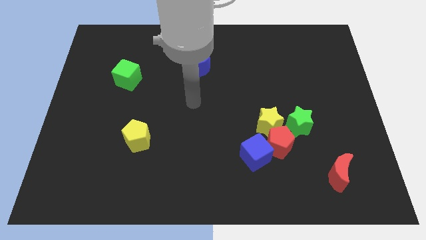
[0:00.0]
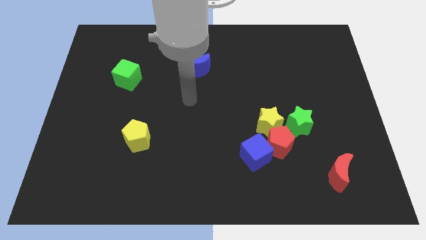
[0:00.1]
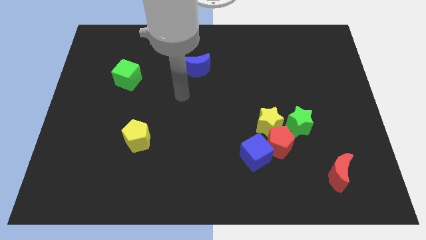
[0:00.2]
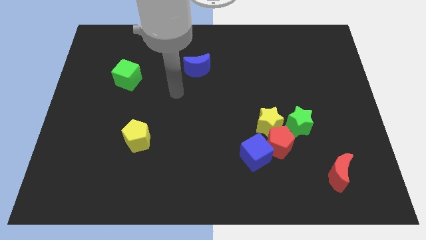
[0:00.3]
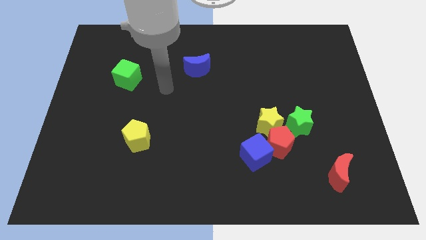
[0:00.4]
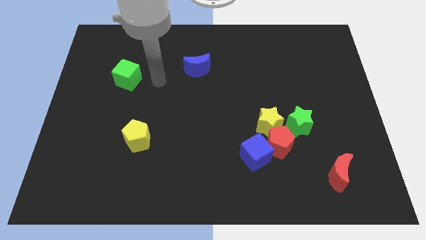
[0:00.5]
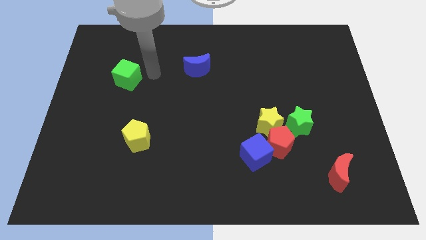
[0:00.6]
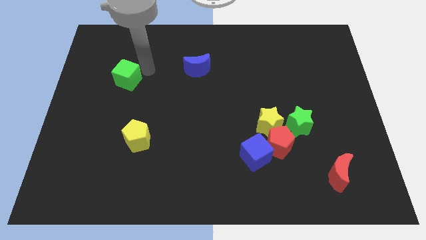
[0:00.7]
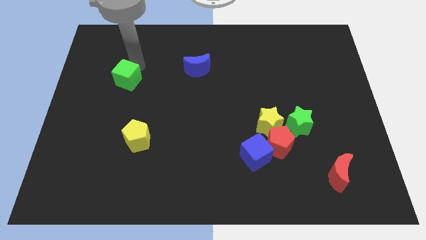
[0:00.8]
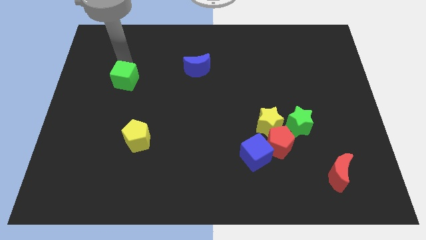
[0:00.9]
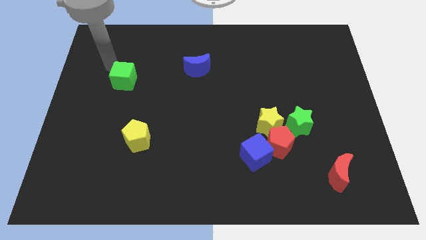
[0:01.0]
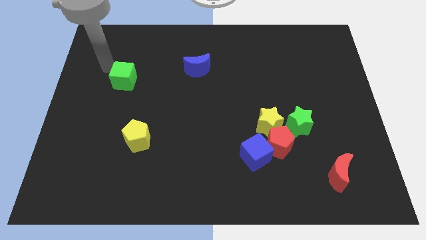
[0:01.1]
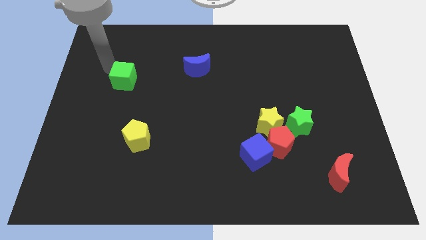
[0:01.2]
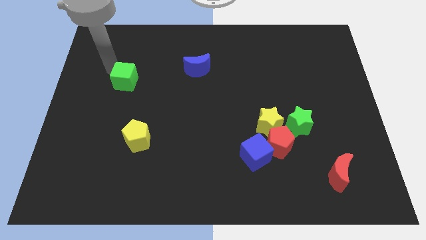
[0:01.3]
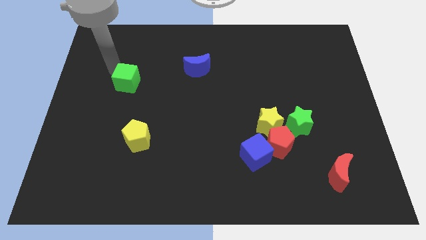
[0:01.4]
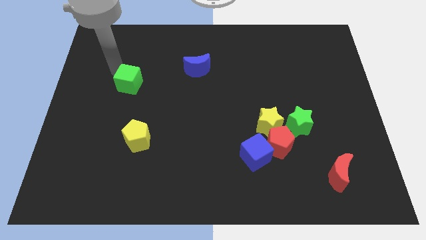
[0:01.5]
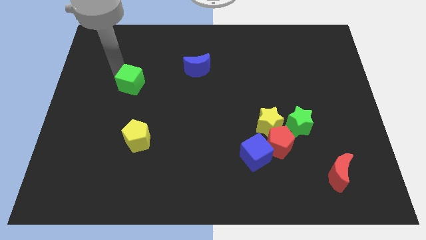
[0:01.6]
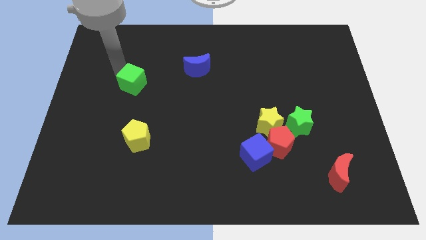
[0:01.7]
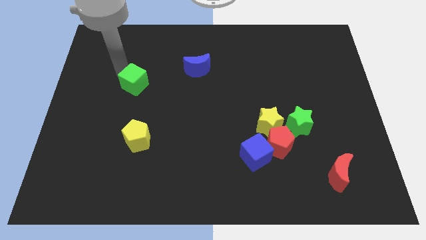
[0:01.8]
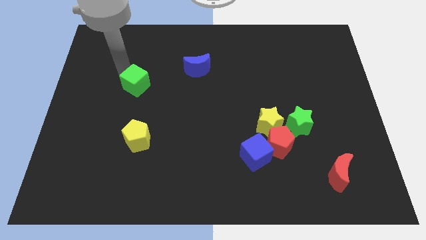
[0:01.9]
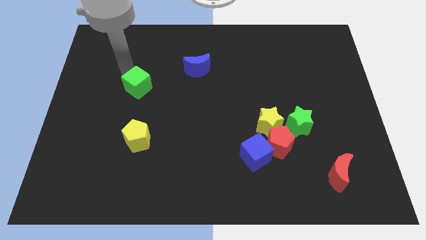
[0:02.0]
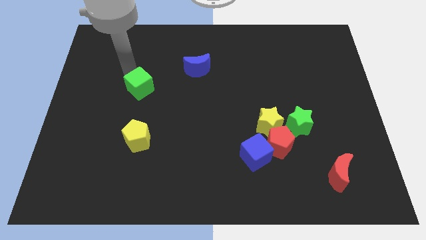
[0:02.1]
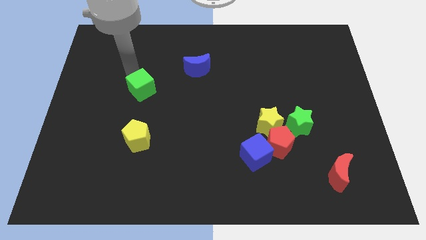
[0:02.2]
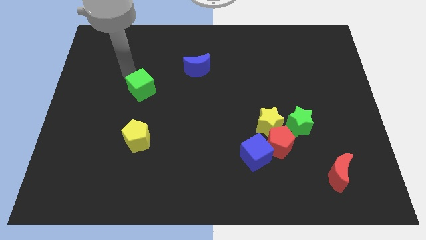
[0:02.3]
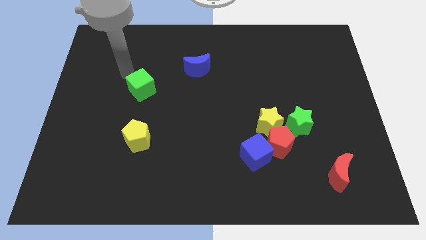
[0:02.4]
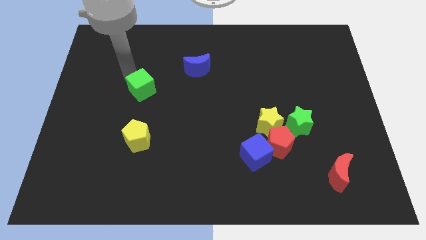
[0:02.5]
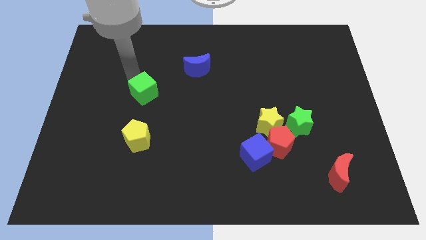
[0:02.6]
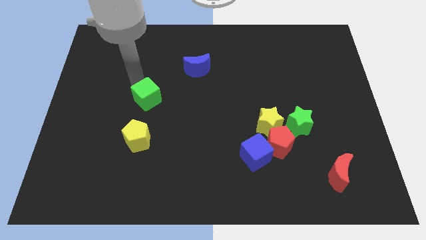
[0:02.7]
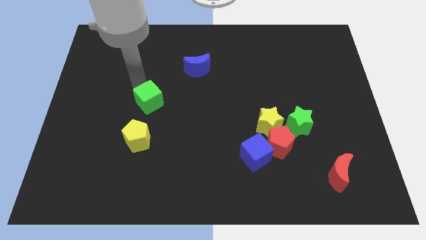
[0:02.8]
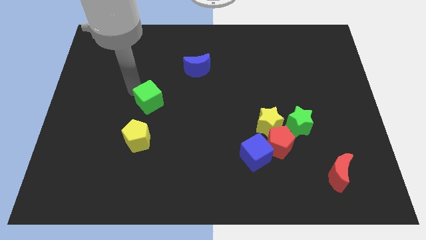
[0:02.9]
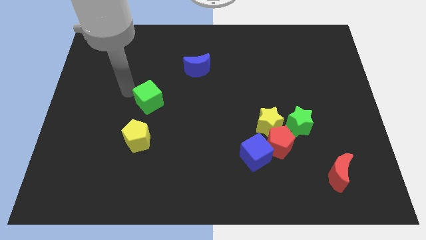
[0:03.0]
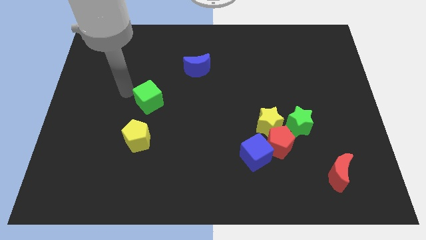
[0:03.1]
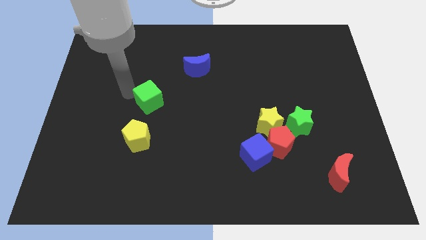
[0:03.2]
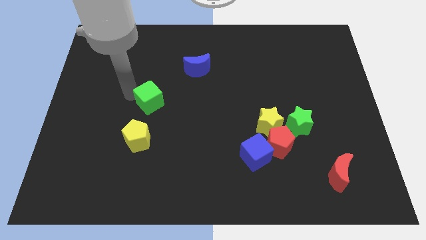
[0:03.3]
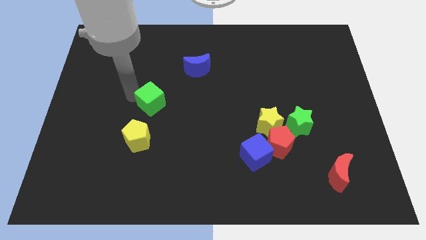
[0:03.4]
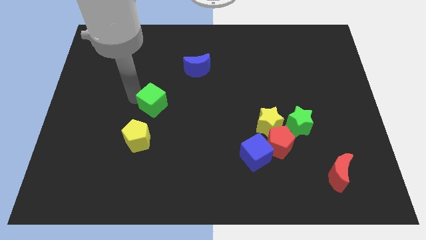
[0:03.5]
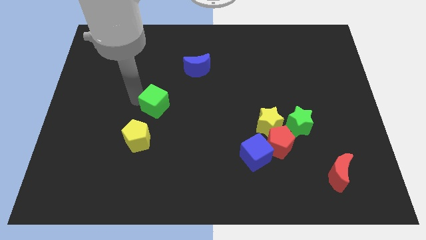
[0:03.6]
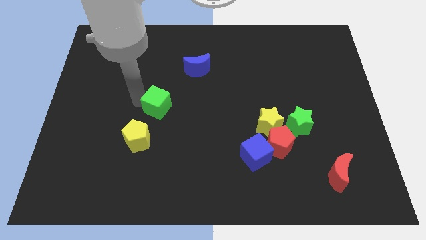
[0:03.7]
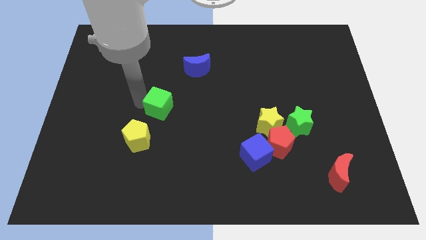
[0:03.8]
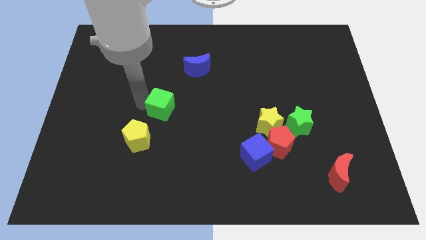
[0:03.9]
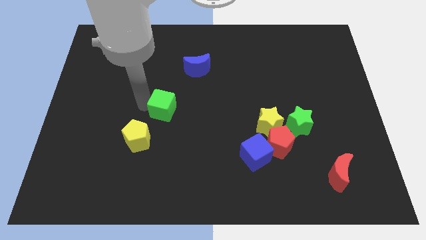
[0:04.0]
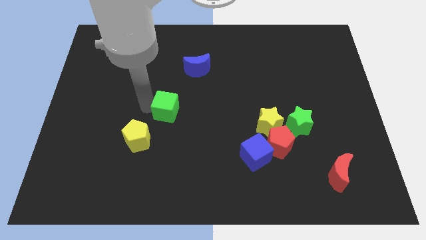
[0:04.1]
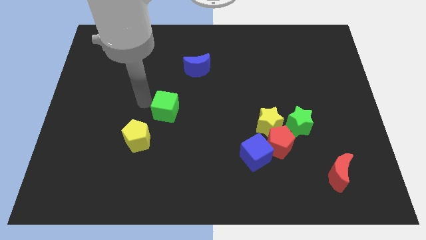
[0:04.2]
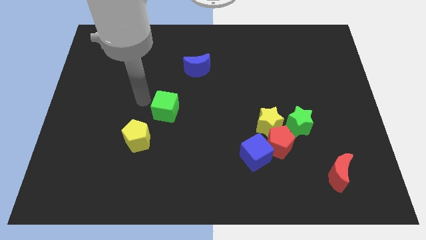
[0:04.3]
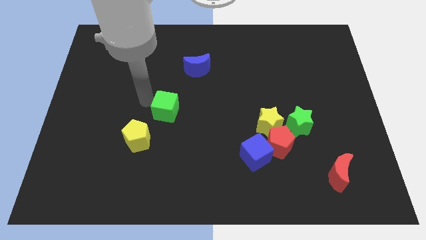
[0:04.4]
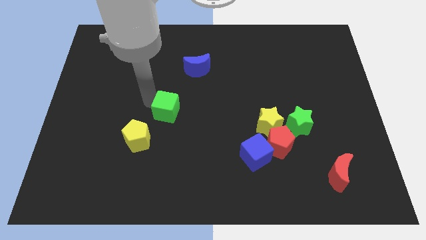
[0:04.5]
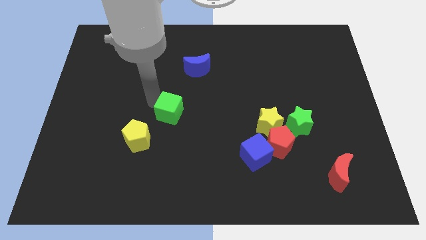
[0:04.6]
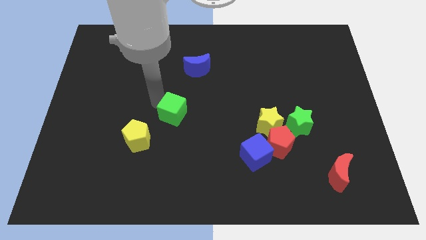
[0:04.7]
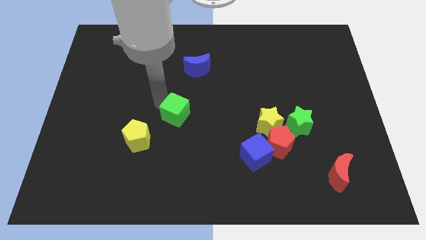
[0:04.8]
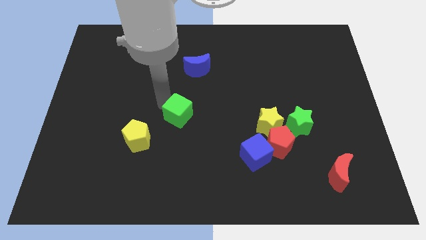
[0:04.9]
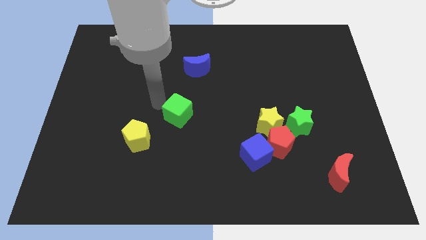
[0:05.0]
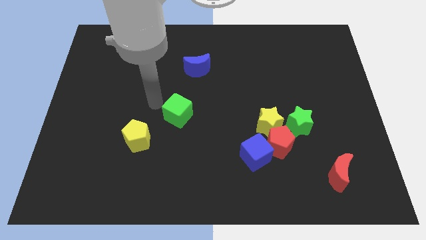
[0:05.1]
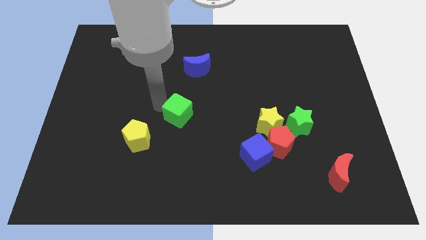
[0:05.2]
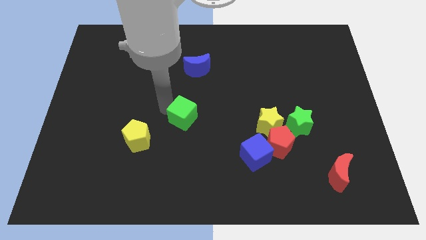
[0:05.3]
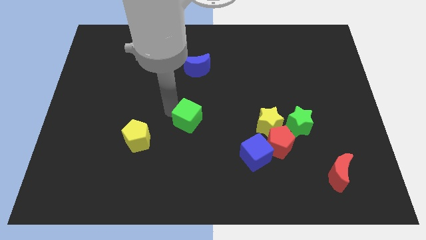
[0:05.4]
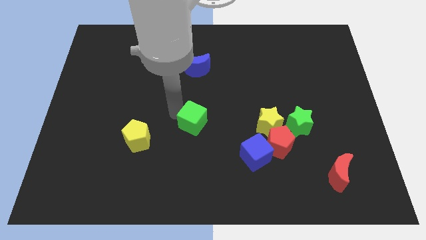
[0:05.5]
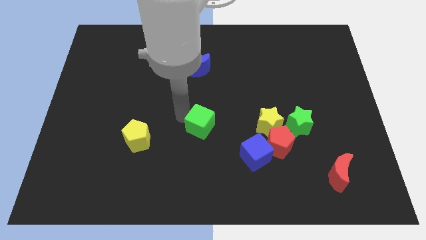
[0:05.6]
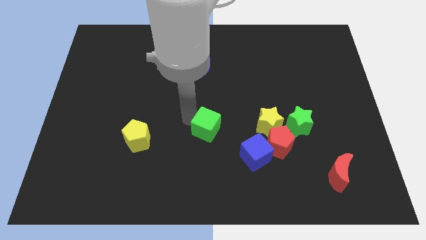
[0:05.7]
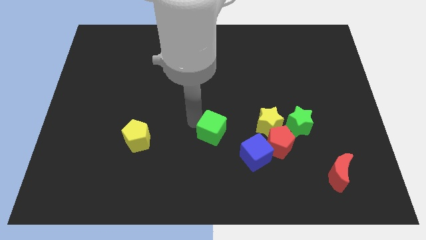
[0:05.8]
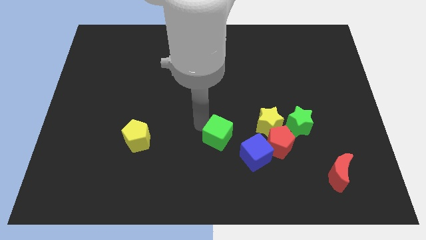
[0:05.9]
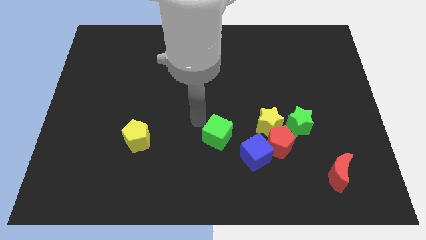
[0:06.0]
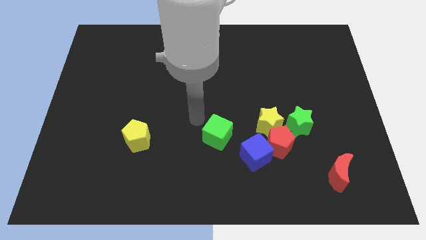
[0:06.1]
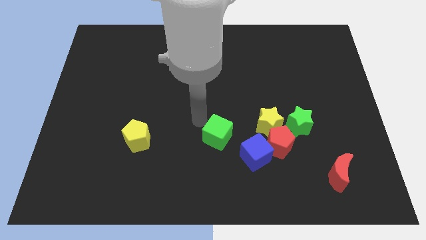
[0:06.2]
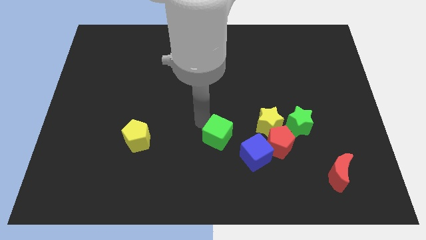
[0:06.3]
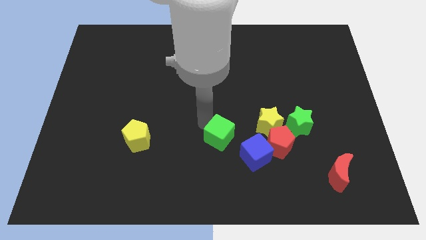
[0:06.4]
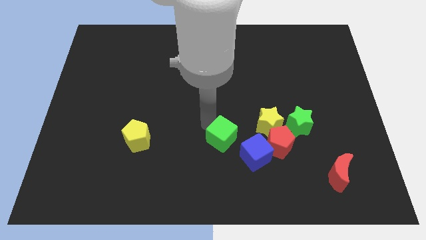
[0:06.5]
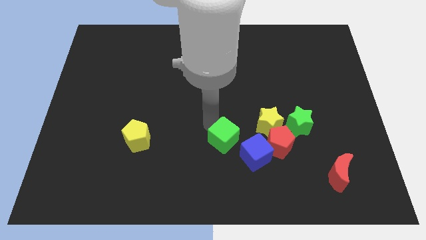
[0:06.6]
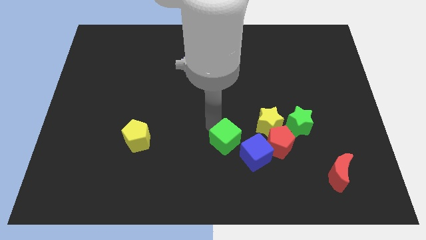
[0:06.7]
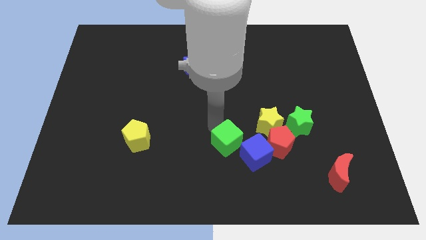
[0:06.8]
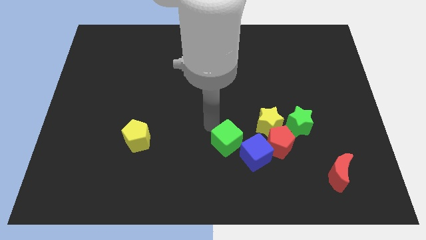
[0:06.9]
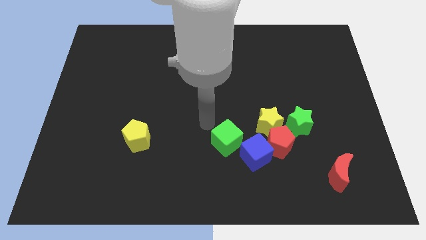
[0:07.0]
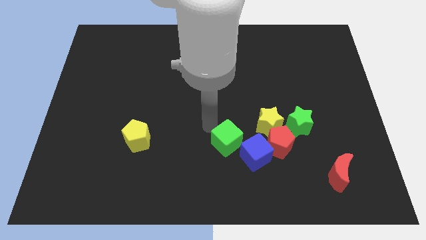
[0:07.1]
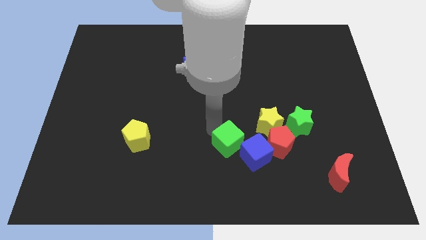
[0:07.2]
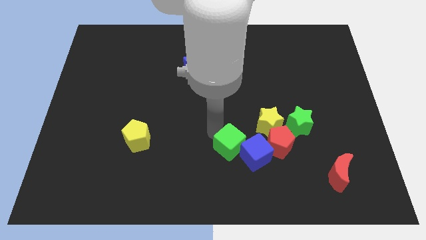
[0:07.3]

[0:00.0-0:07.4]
slide the green cube close to the blue cube
